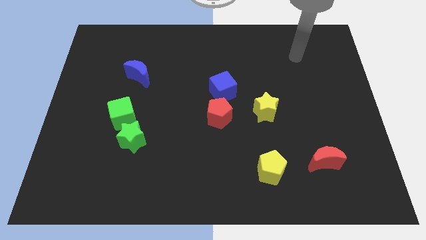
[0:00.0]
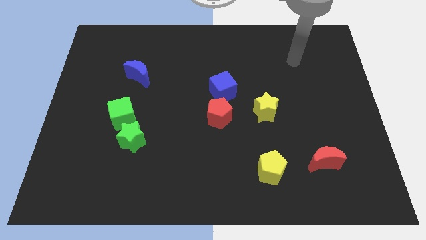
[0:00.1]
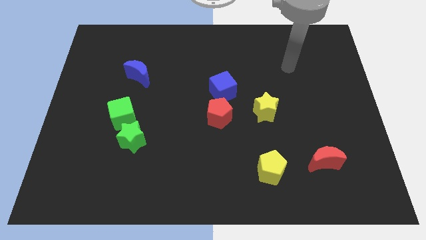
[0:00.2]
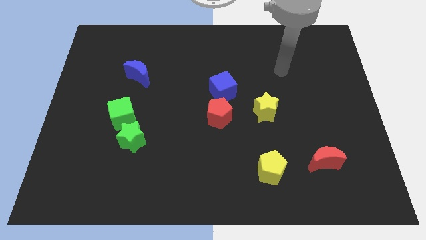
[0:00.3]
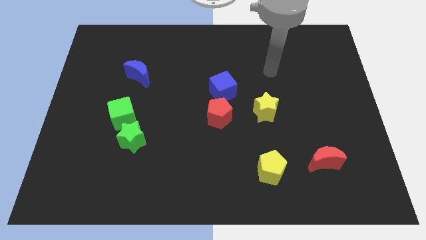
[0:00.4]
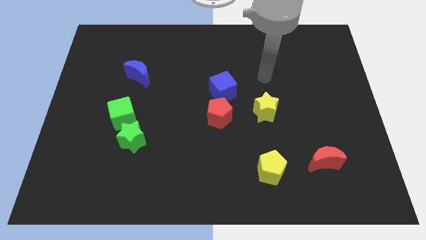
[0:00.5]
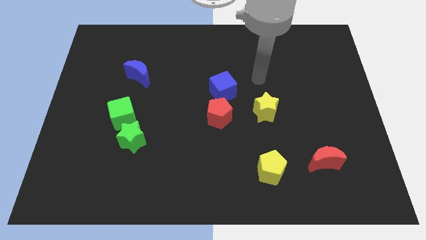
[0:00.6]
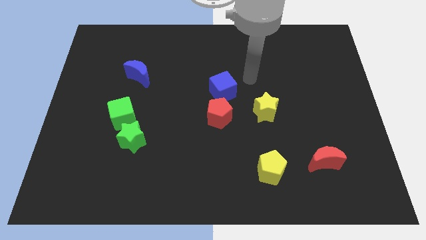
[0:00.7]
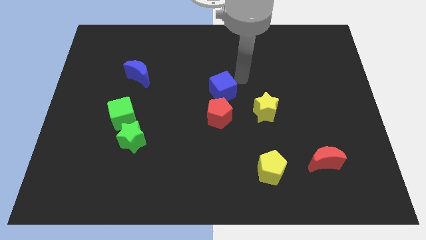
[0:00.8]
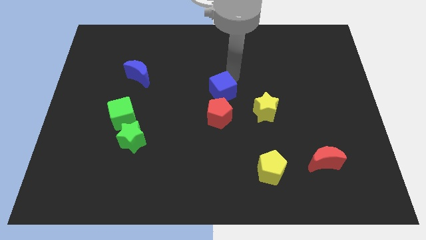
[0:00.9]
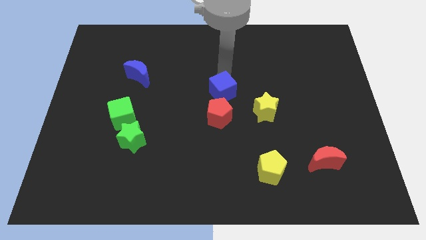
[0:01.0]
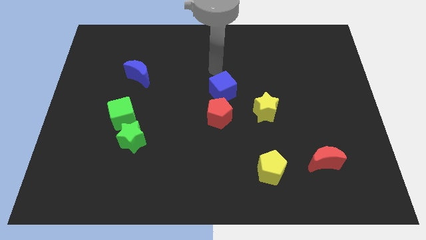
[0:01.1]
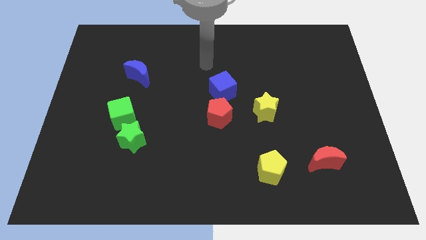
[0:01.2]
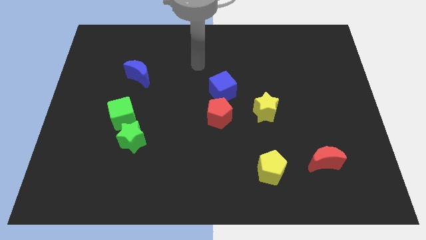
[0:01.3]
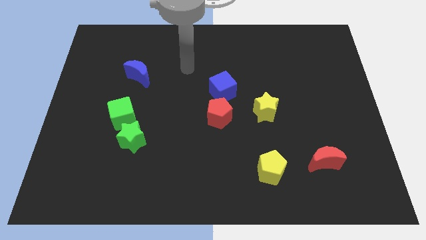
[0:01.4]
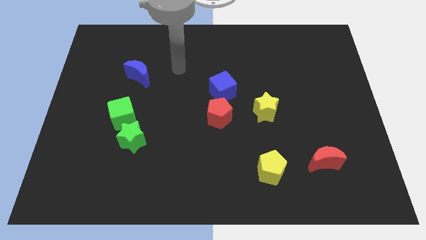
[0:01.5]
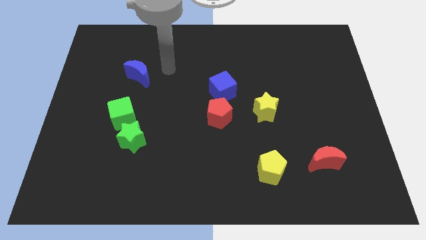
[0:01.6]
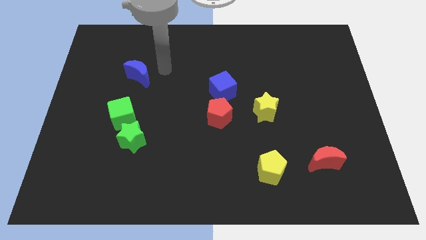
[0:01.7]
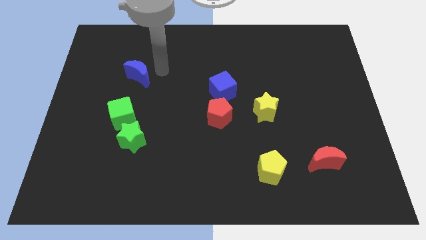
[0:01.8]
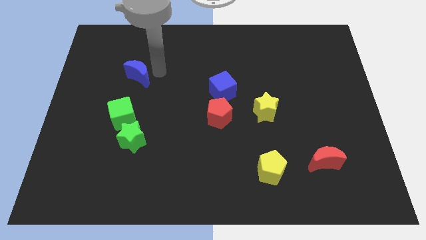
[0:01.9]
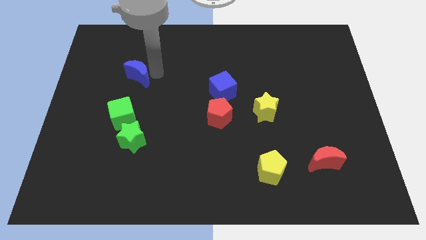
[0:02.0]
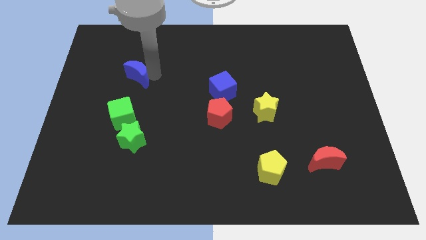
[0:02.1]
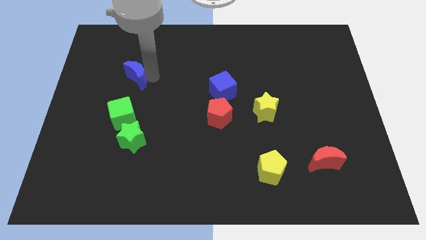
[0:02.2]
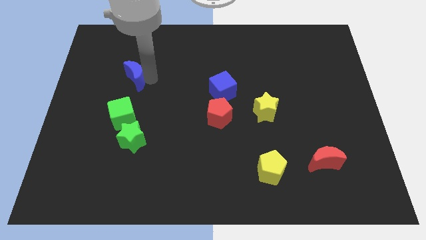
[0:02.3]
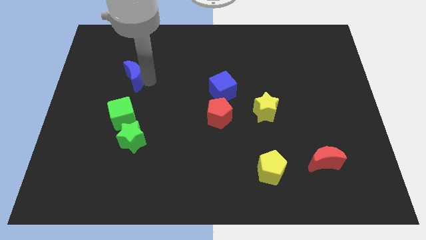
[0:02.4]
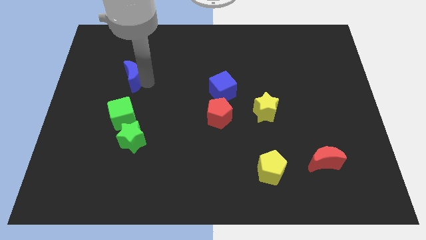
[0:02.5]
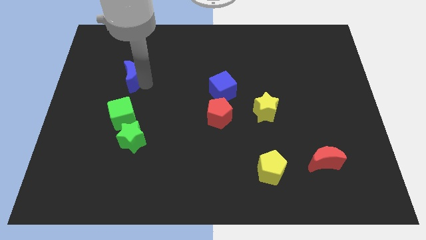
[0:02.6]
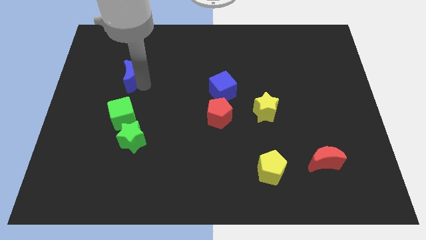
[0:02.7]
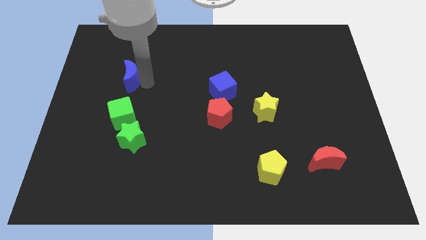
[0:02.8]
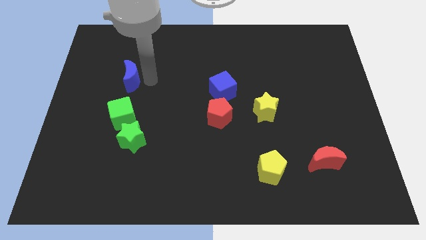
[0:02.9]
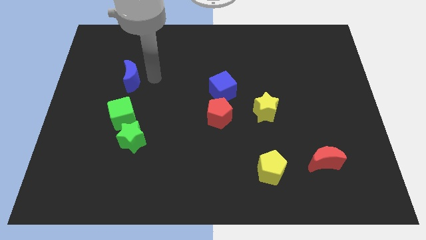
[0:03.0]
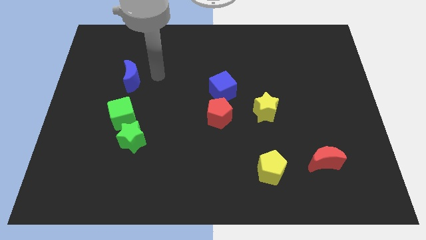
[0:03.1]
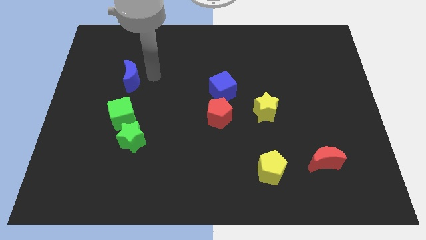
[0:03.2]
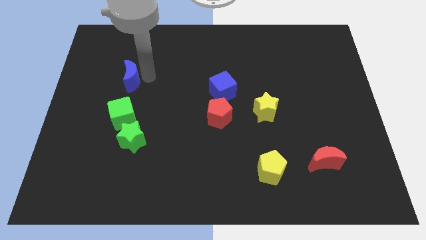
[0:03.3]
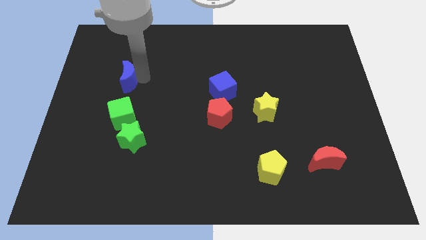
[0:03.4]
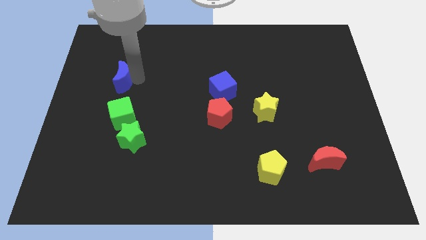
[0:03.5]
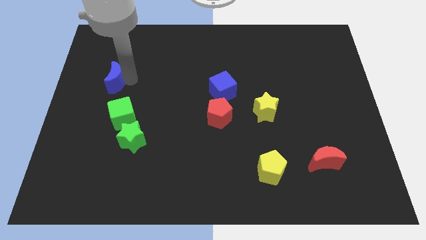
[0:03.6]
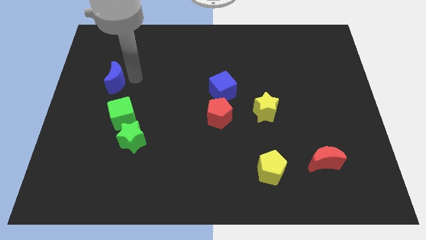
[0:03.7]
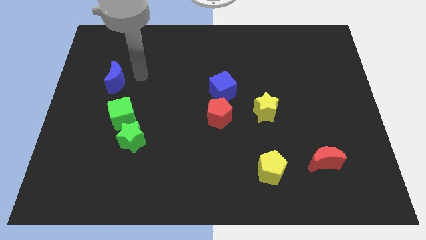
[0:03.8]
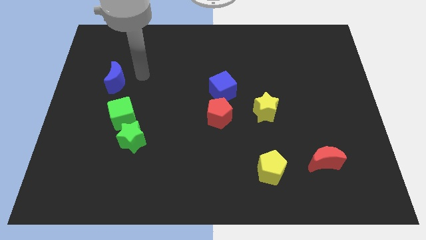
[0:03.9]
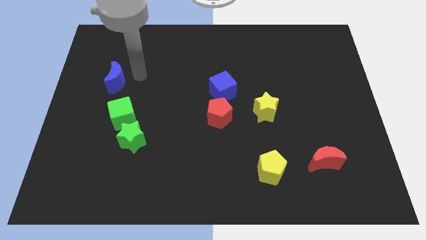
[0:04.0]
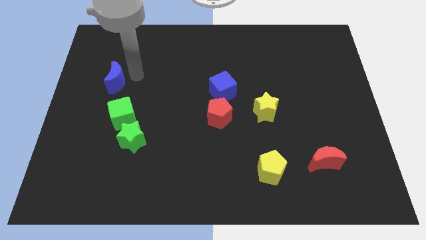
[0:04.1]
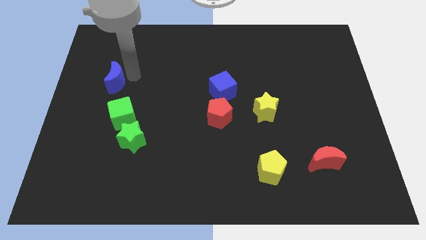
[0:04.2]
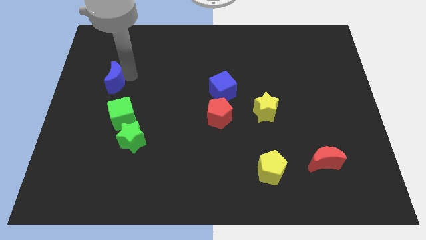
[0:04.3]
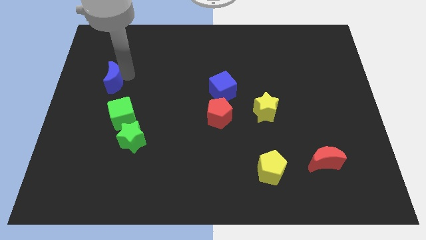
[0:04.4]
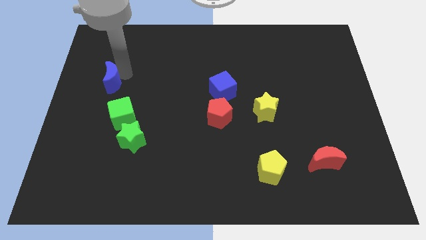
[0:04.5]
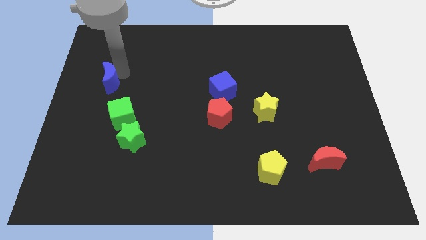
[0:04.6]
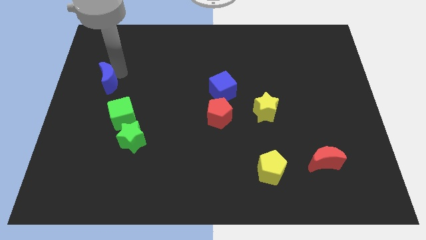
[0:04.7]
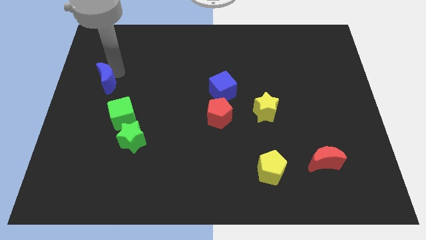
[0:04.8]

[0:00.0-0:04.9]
push the blue moon to the center left

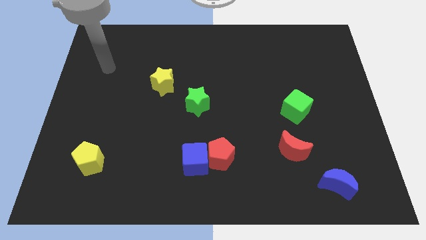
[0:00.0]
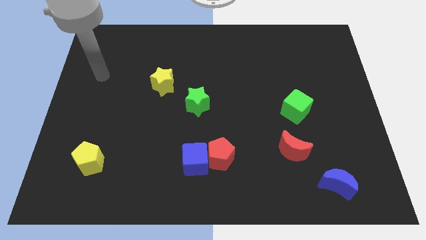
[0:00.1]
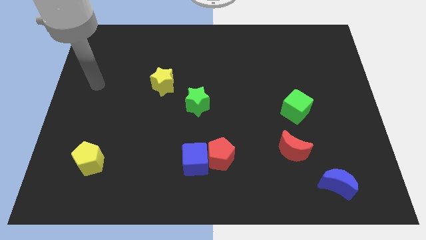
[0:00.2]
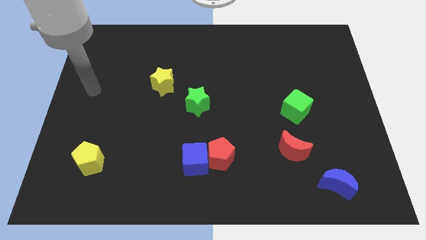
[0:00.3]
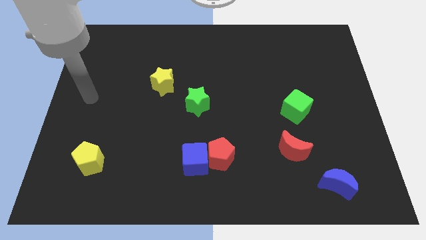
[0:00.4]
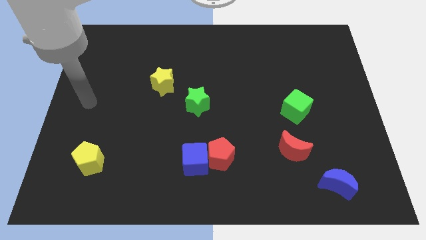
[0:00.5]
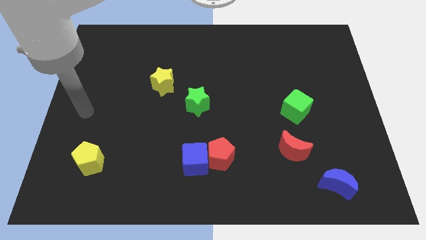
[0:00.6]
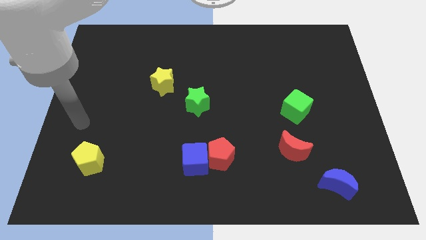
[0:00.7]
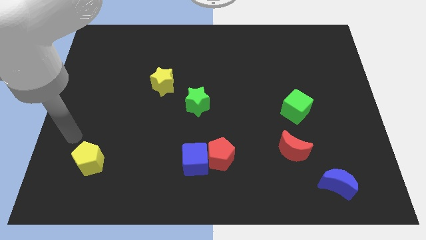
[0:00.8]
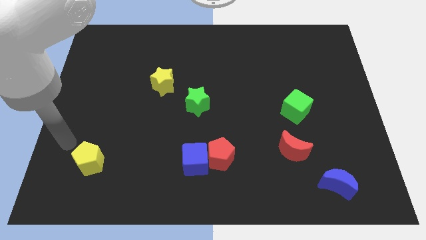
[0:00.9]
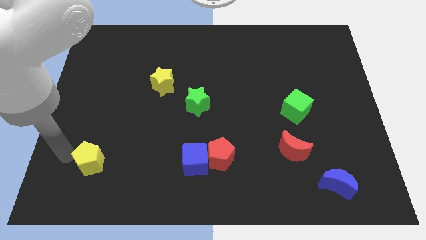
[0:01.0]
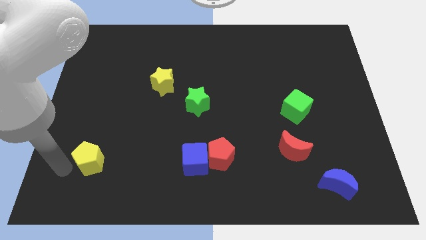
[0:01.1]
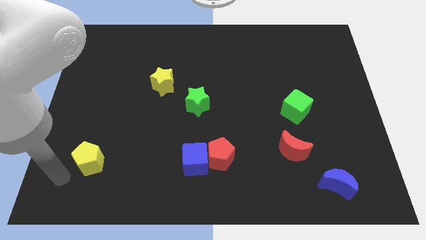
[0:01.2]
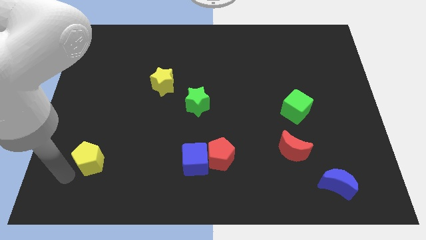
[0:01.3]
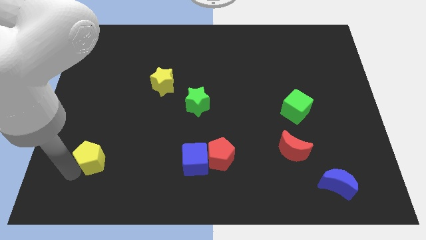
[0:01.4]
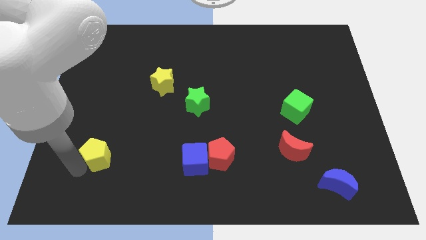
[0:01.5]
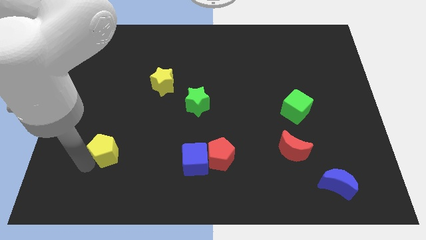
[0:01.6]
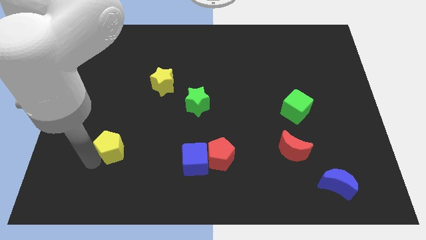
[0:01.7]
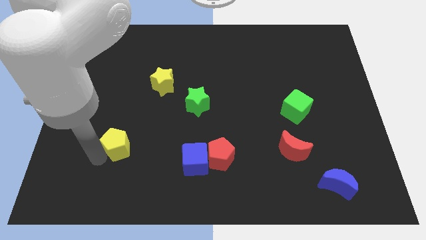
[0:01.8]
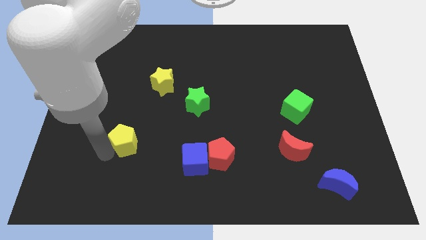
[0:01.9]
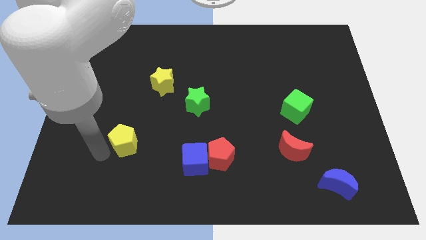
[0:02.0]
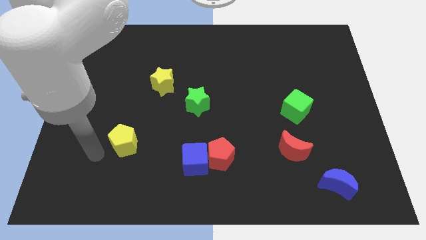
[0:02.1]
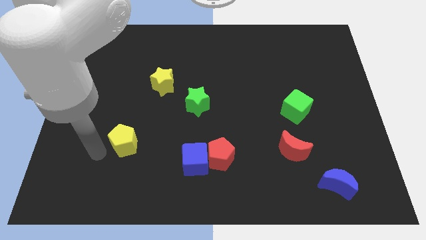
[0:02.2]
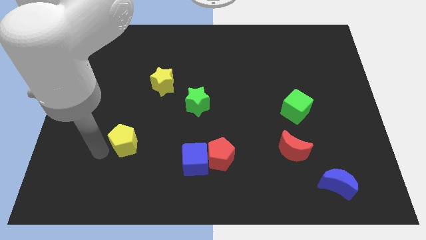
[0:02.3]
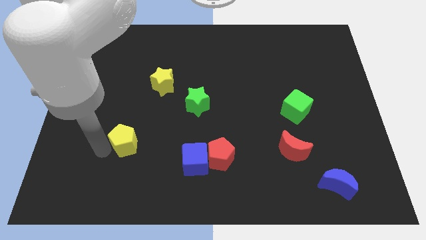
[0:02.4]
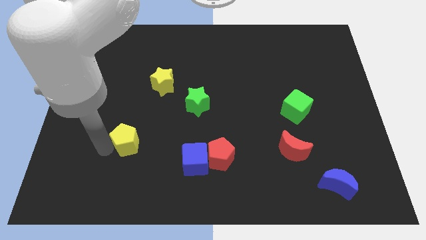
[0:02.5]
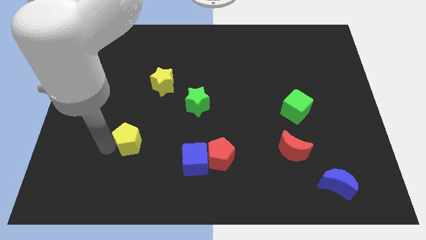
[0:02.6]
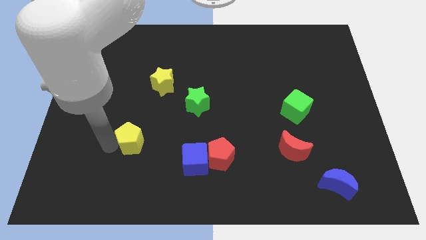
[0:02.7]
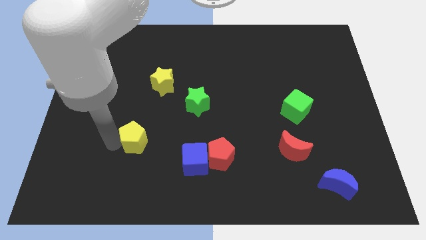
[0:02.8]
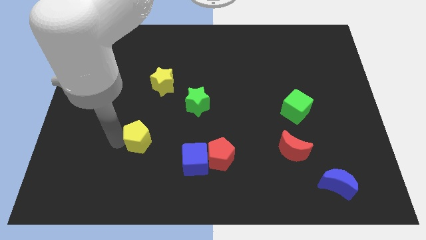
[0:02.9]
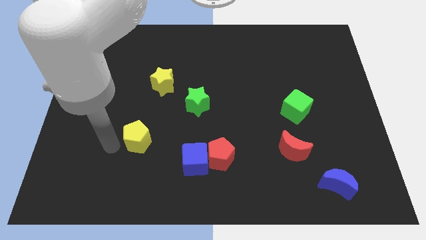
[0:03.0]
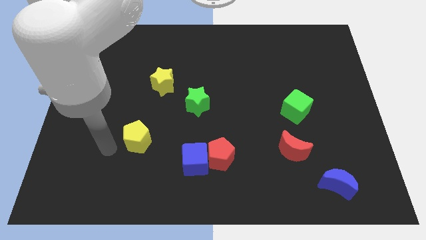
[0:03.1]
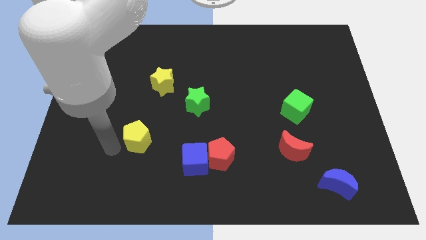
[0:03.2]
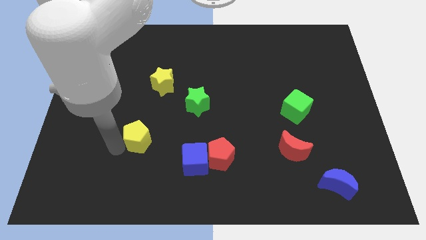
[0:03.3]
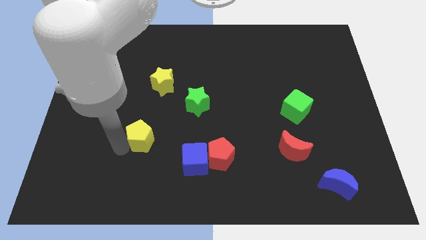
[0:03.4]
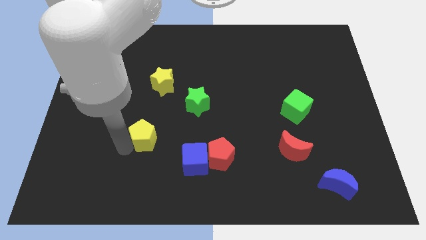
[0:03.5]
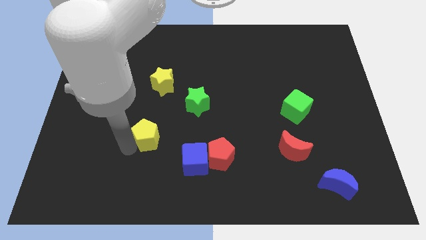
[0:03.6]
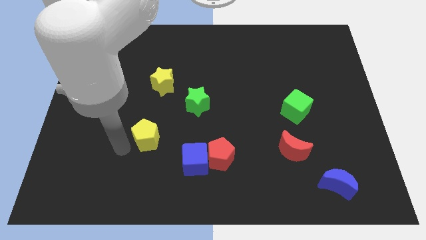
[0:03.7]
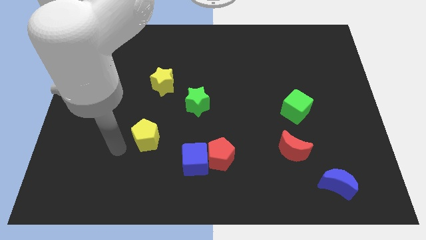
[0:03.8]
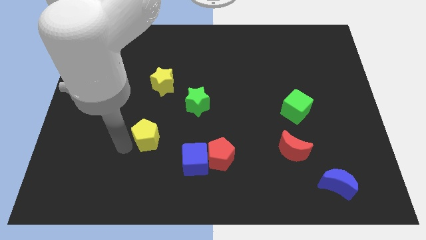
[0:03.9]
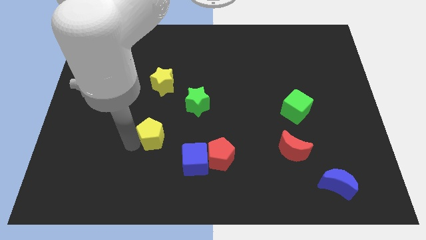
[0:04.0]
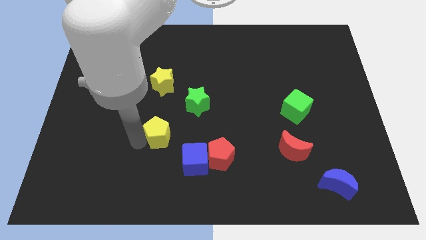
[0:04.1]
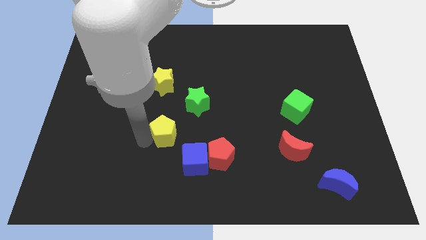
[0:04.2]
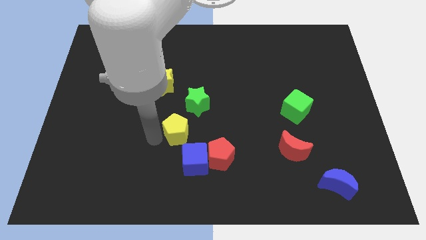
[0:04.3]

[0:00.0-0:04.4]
push the yellow pentagon to the middle of the board
